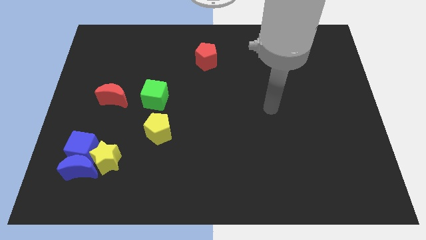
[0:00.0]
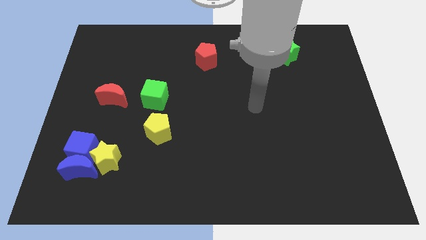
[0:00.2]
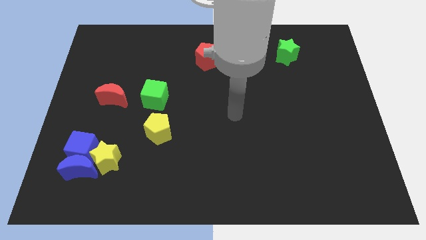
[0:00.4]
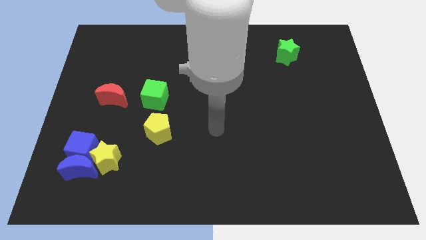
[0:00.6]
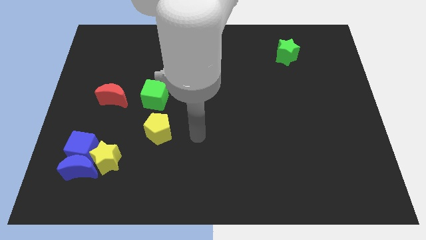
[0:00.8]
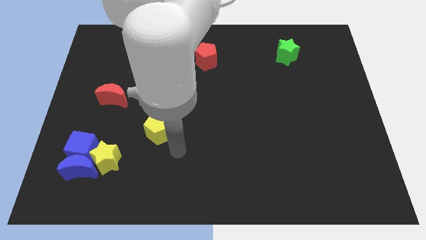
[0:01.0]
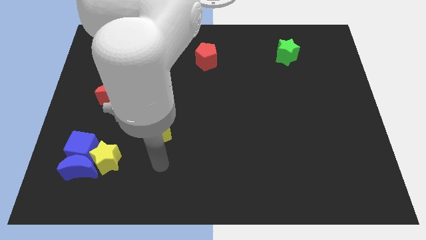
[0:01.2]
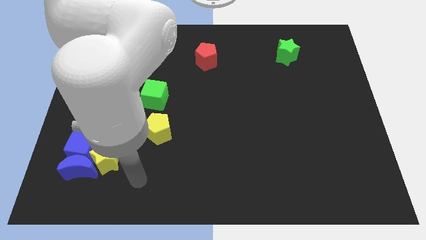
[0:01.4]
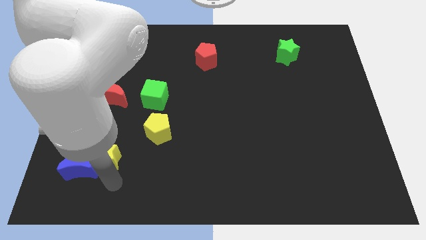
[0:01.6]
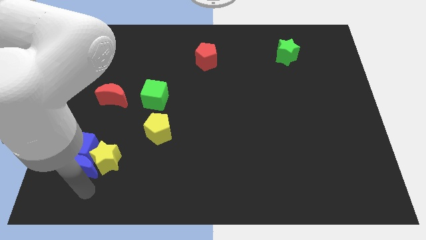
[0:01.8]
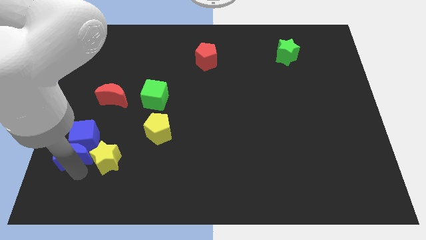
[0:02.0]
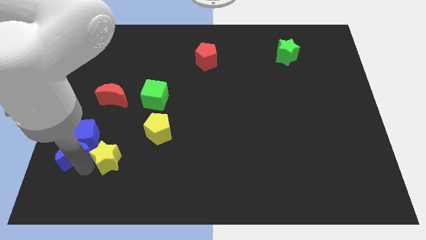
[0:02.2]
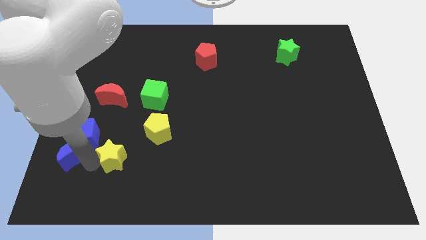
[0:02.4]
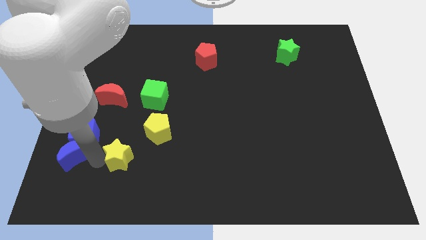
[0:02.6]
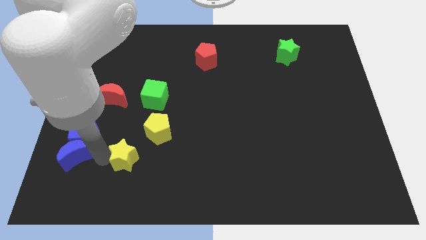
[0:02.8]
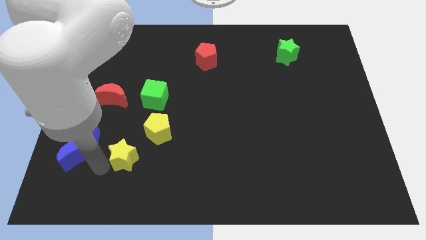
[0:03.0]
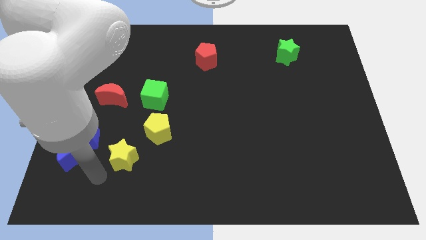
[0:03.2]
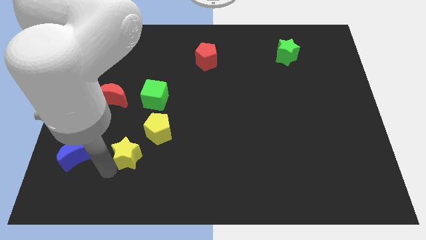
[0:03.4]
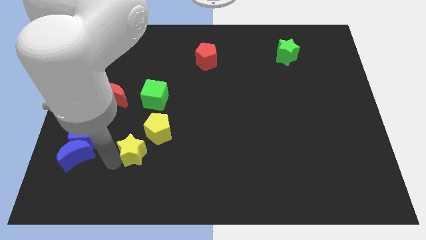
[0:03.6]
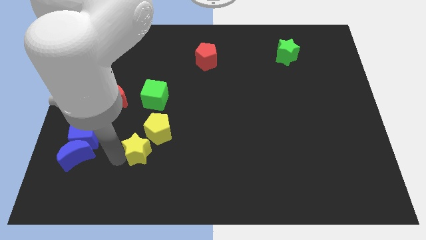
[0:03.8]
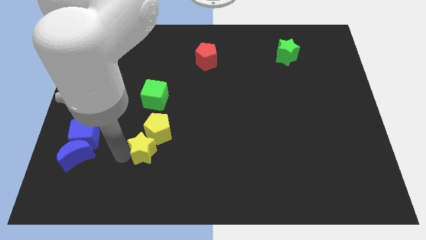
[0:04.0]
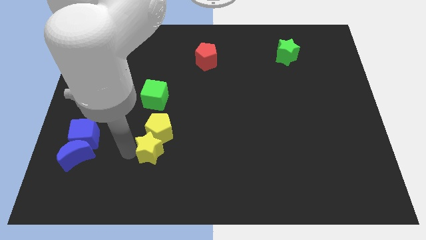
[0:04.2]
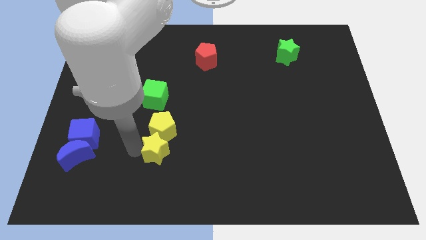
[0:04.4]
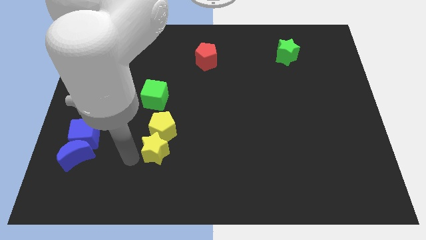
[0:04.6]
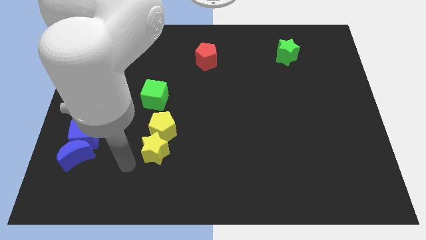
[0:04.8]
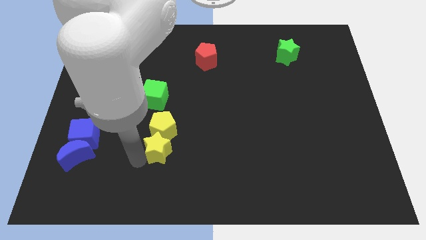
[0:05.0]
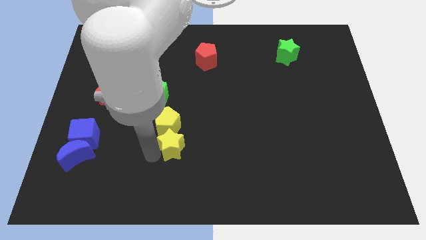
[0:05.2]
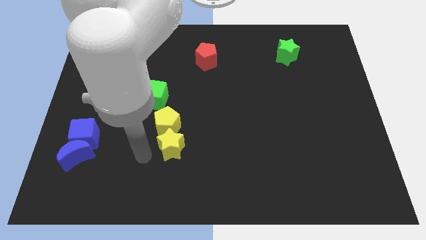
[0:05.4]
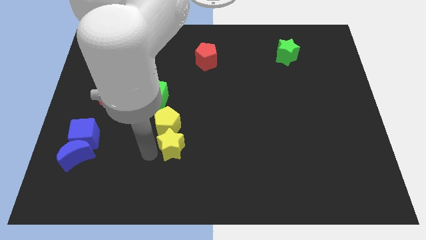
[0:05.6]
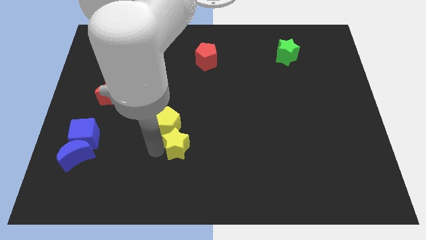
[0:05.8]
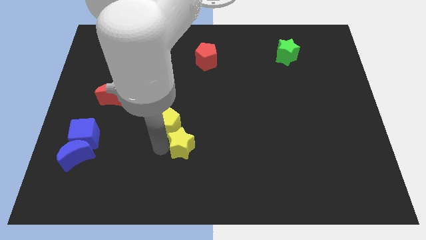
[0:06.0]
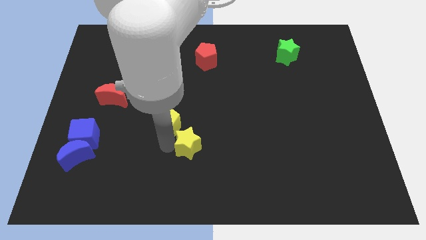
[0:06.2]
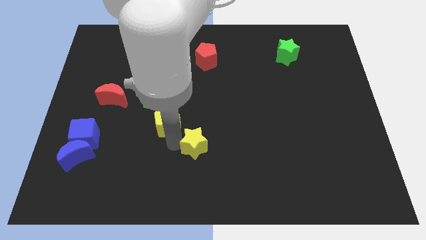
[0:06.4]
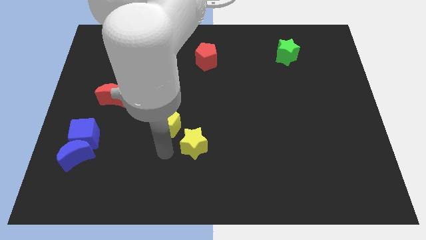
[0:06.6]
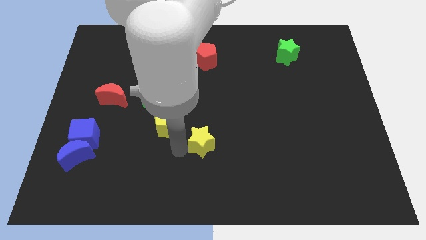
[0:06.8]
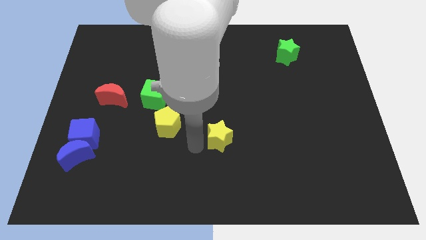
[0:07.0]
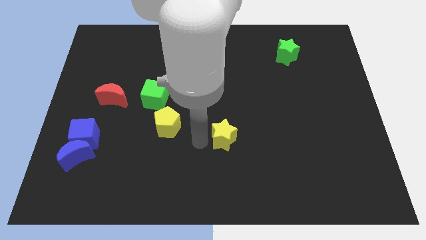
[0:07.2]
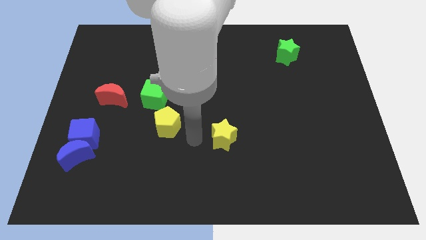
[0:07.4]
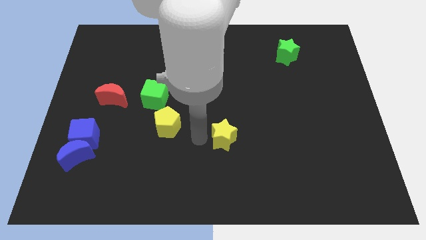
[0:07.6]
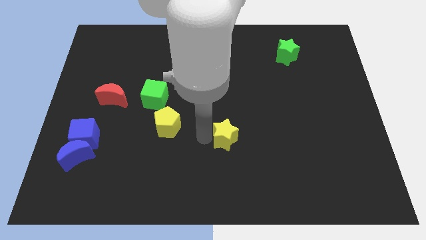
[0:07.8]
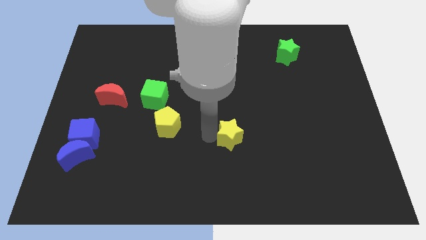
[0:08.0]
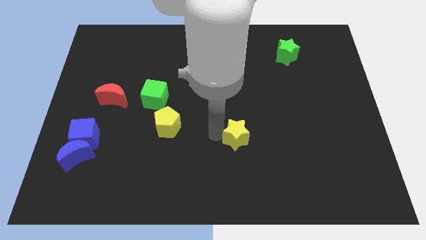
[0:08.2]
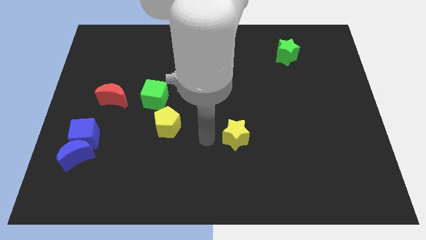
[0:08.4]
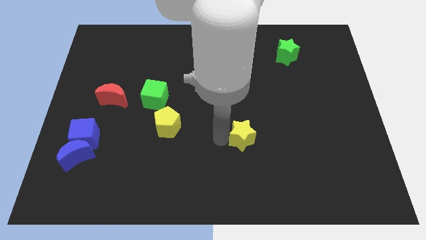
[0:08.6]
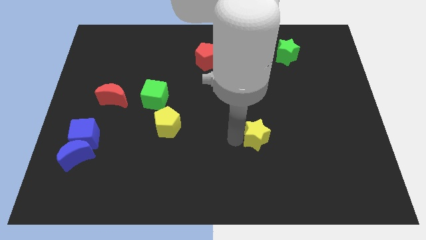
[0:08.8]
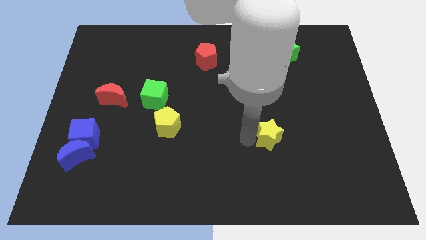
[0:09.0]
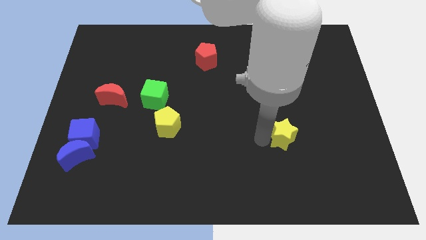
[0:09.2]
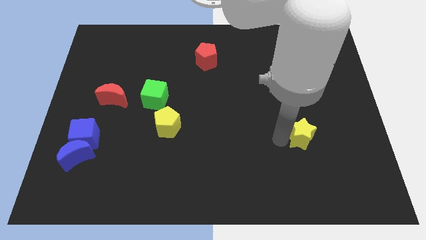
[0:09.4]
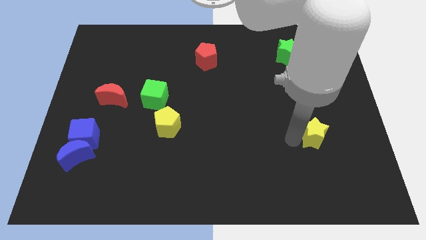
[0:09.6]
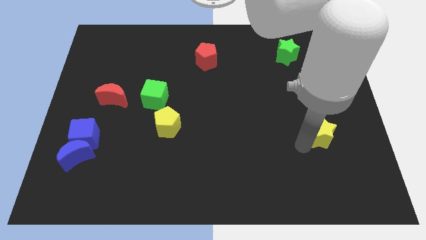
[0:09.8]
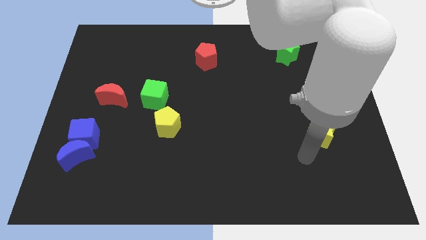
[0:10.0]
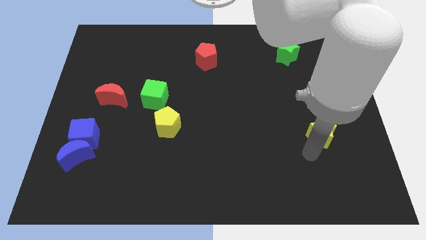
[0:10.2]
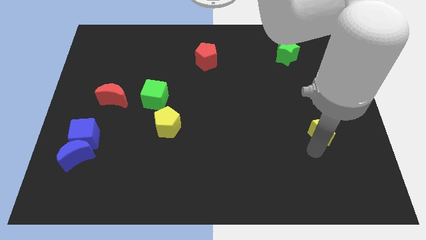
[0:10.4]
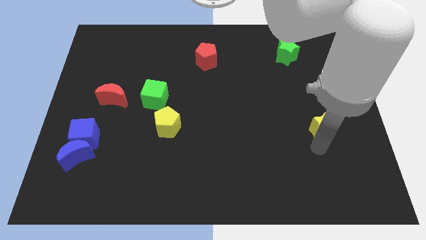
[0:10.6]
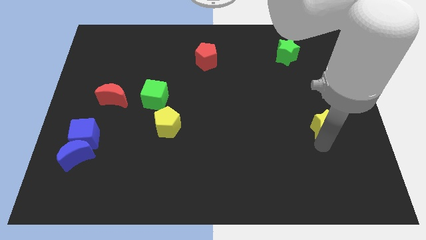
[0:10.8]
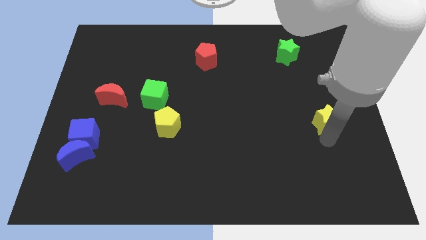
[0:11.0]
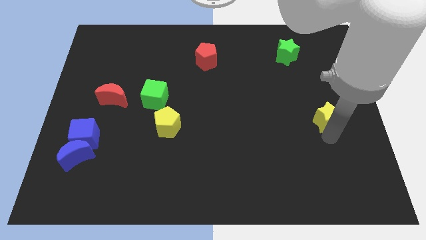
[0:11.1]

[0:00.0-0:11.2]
slide the yellow star to the center right

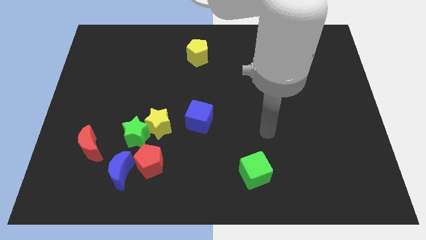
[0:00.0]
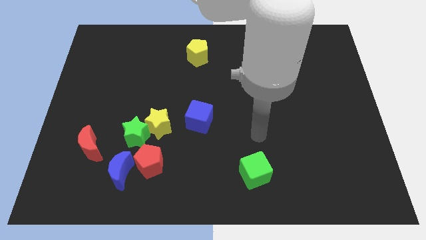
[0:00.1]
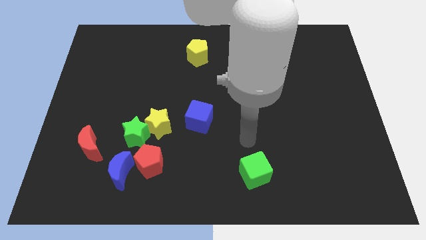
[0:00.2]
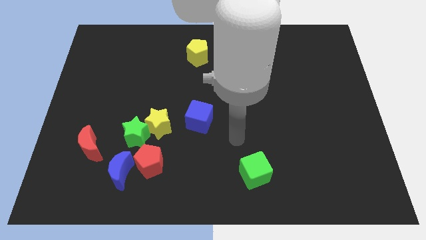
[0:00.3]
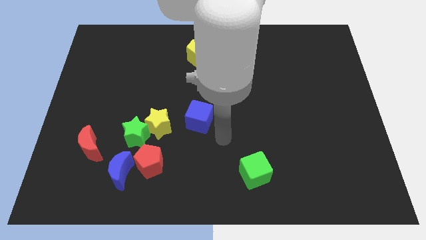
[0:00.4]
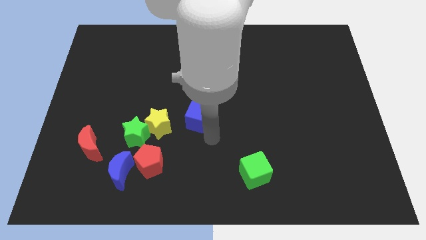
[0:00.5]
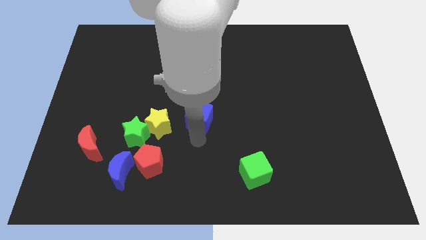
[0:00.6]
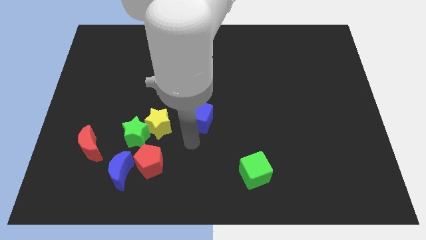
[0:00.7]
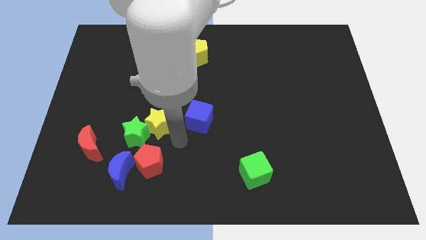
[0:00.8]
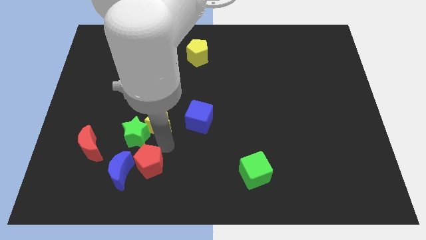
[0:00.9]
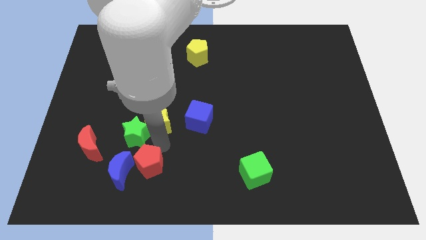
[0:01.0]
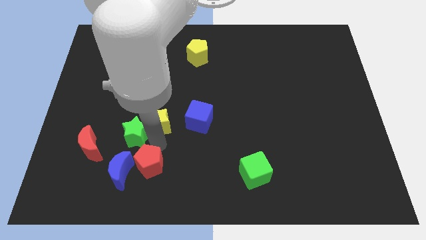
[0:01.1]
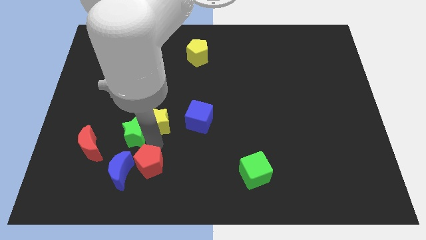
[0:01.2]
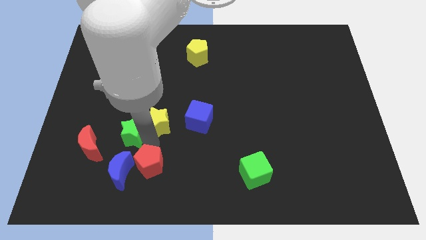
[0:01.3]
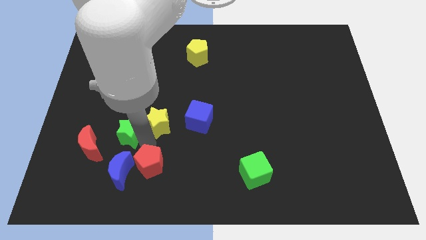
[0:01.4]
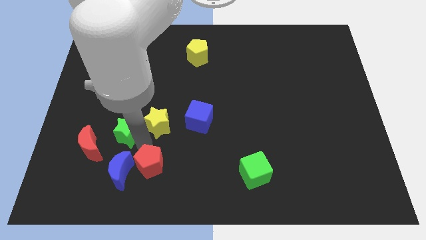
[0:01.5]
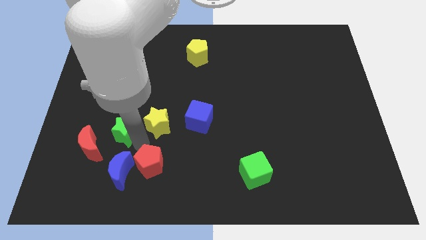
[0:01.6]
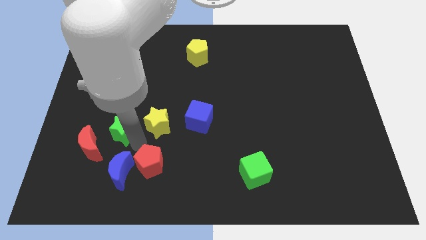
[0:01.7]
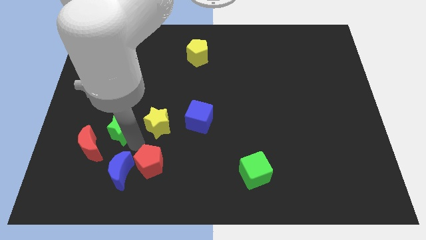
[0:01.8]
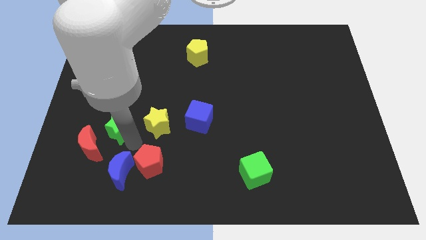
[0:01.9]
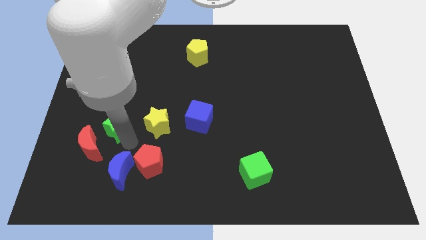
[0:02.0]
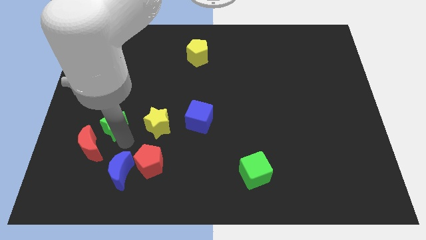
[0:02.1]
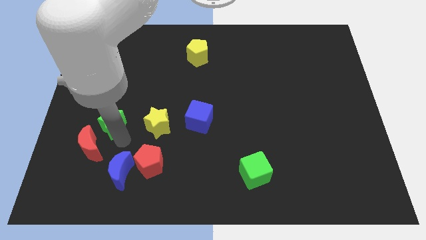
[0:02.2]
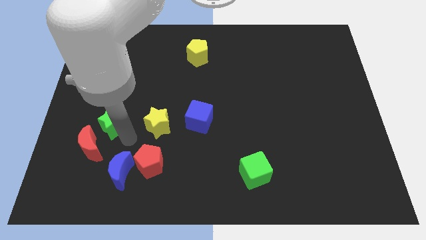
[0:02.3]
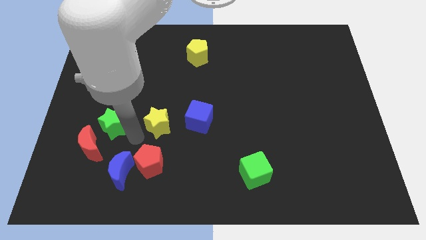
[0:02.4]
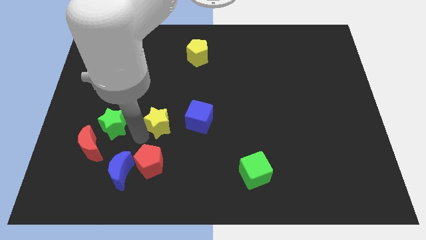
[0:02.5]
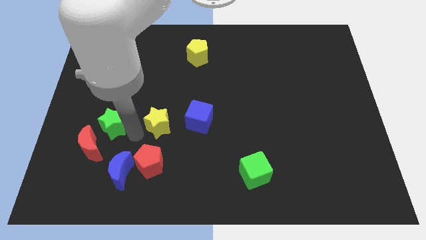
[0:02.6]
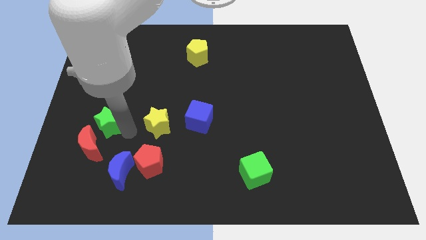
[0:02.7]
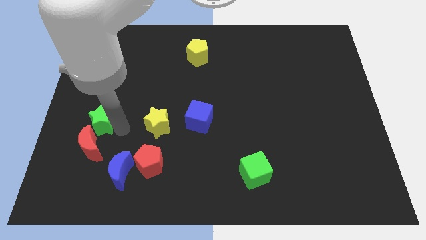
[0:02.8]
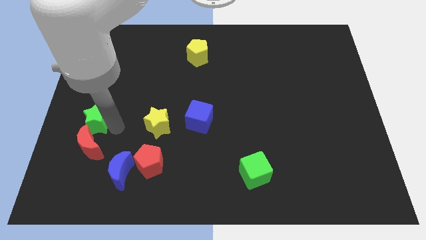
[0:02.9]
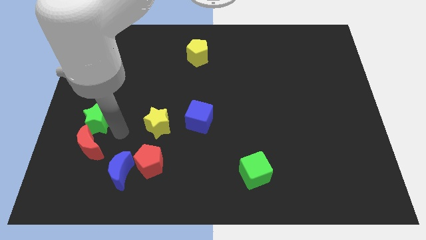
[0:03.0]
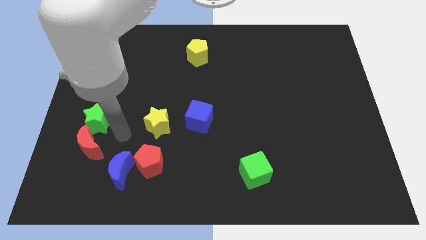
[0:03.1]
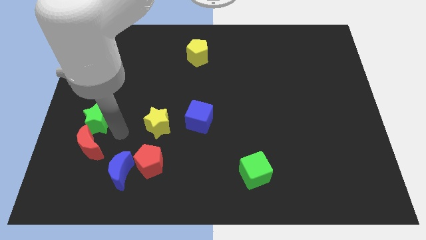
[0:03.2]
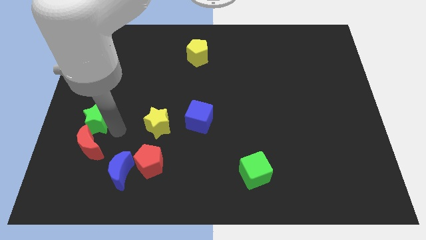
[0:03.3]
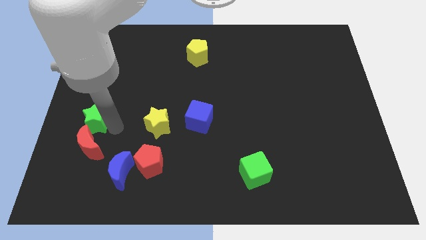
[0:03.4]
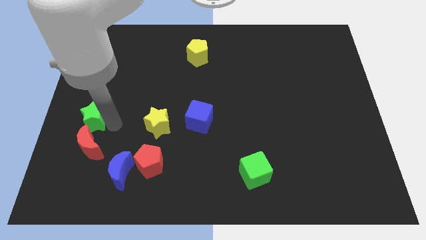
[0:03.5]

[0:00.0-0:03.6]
push the green star to the center left
